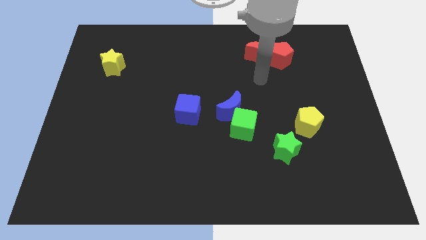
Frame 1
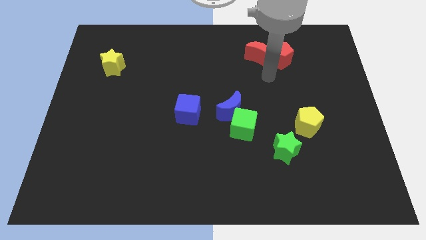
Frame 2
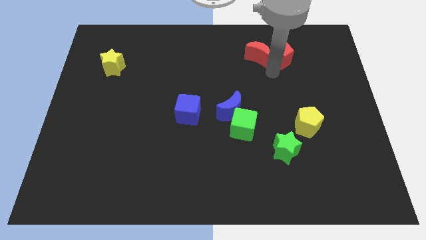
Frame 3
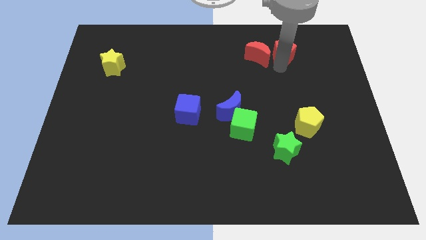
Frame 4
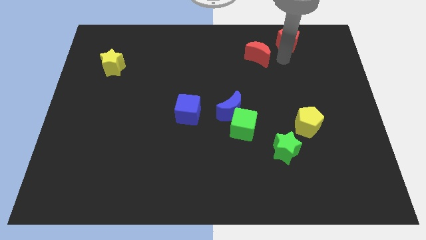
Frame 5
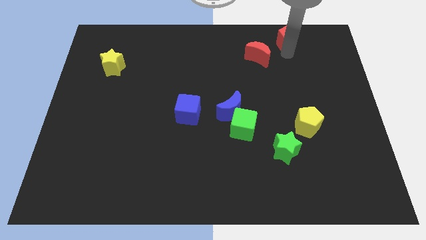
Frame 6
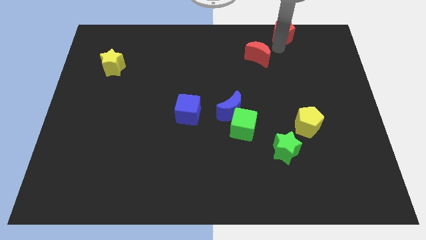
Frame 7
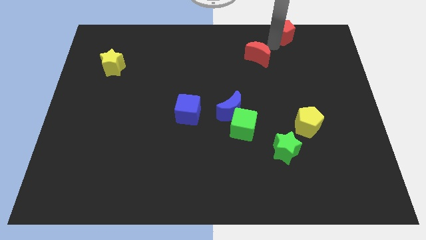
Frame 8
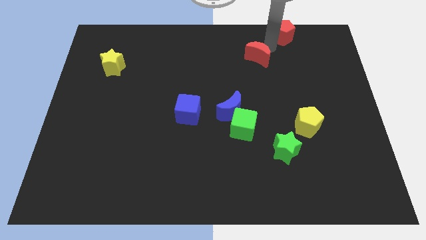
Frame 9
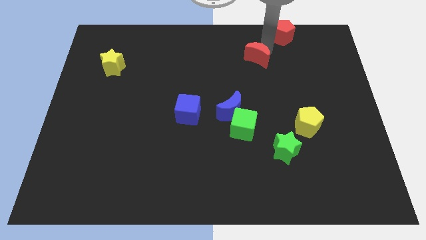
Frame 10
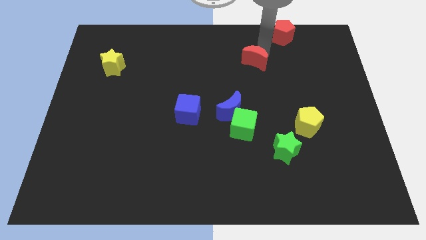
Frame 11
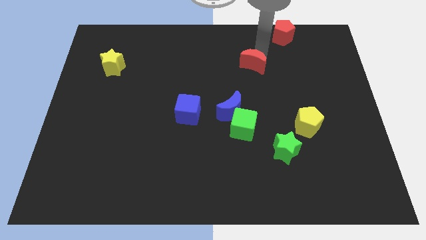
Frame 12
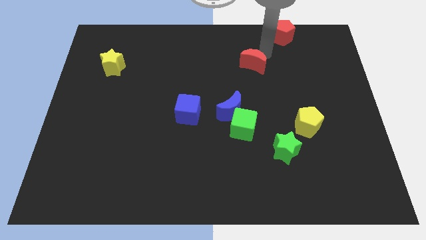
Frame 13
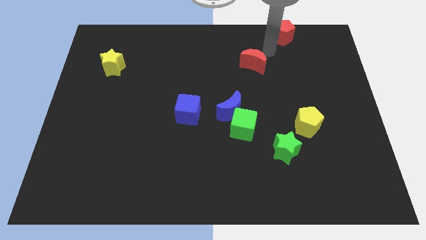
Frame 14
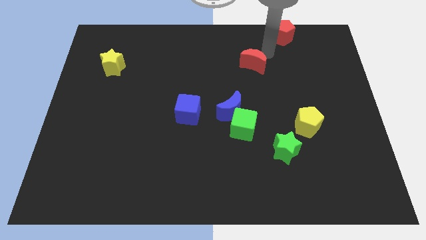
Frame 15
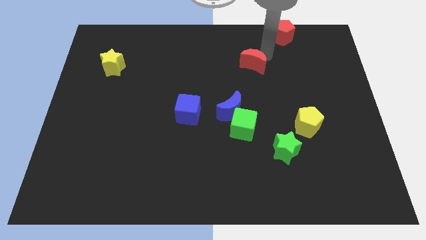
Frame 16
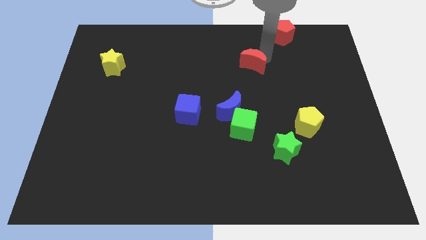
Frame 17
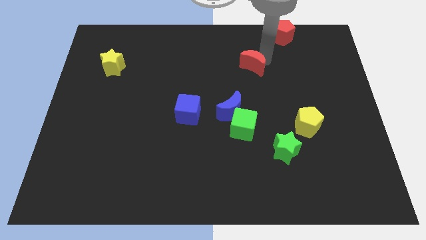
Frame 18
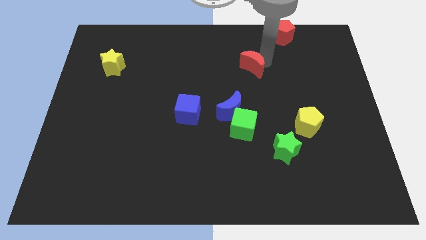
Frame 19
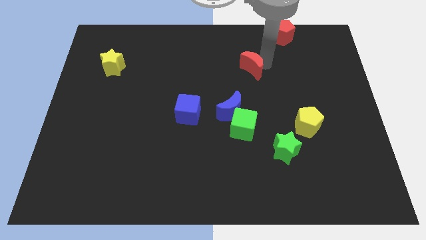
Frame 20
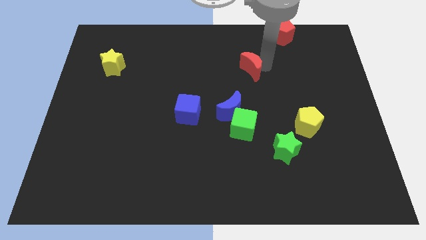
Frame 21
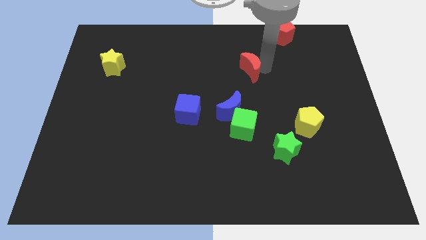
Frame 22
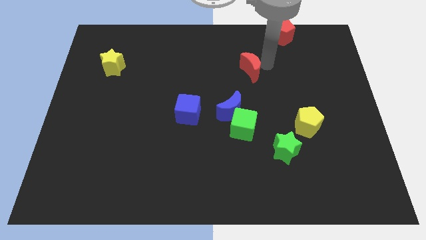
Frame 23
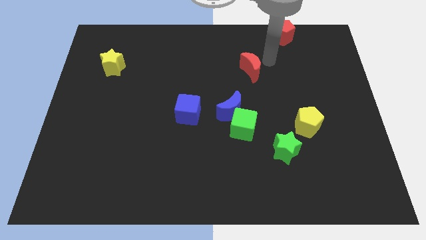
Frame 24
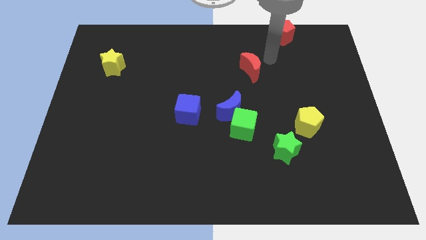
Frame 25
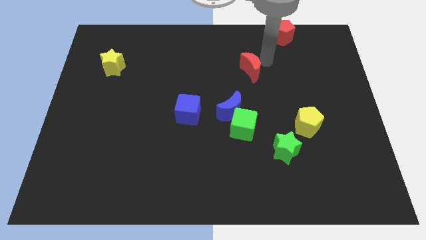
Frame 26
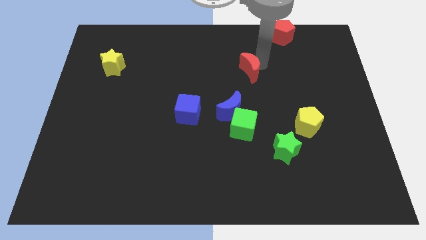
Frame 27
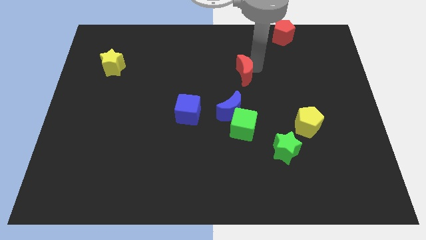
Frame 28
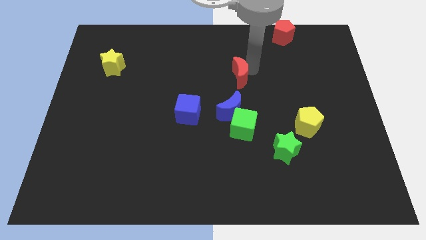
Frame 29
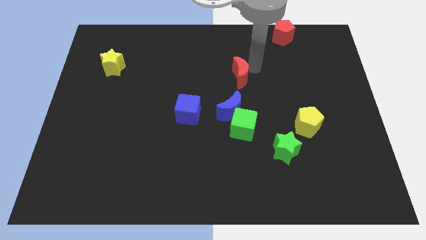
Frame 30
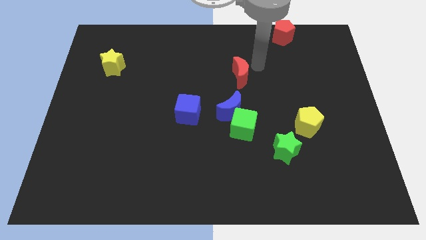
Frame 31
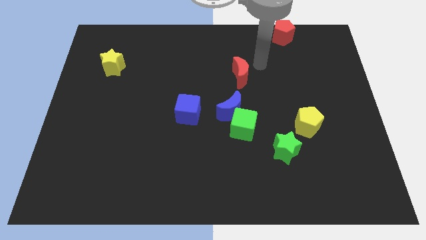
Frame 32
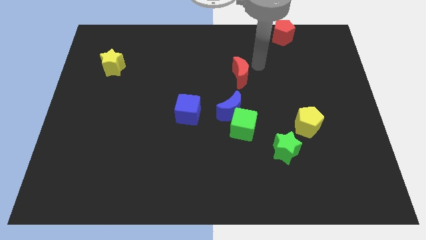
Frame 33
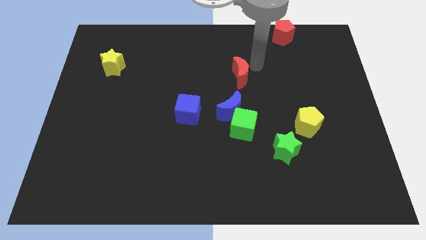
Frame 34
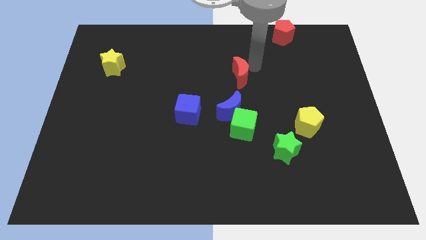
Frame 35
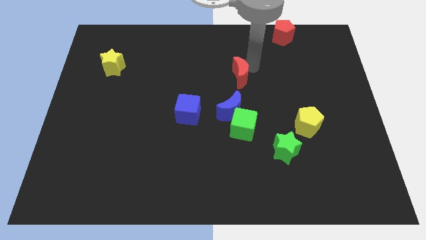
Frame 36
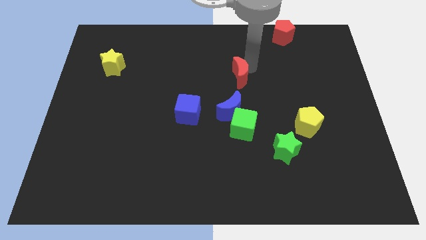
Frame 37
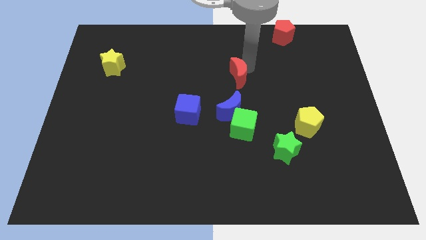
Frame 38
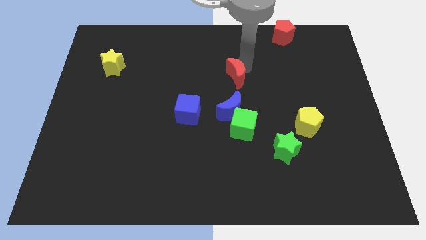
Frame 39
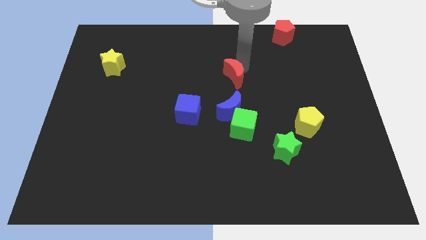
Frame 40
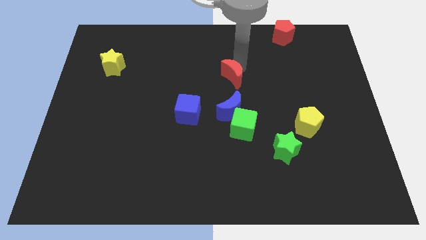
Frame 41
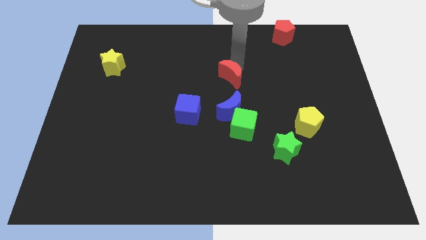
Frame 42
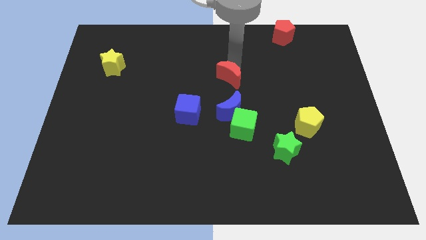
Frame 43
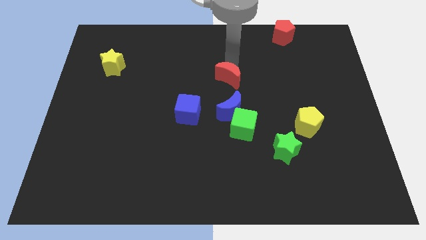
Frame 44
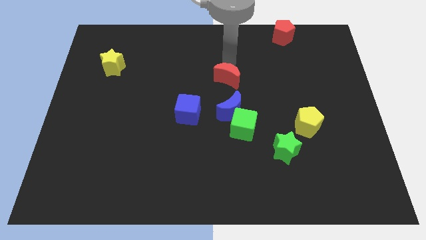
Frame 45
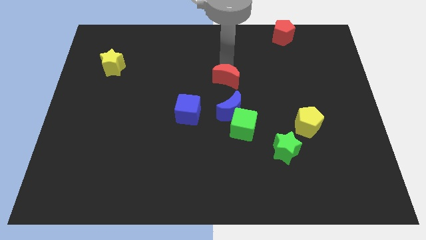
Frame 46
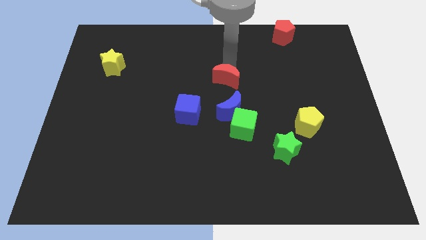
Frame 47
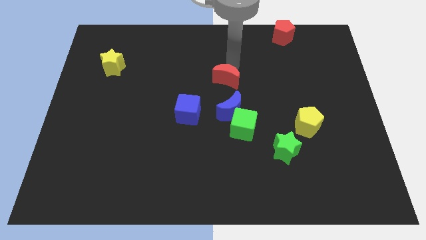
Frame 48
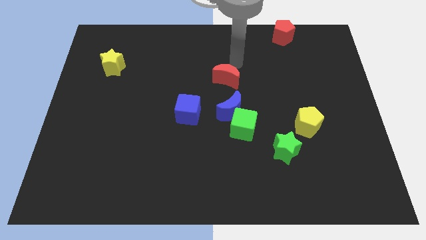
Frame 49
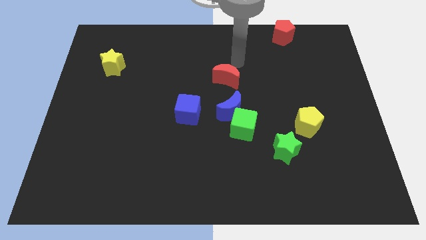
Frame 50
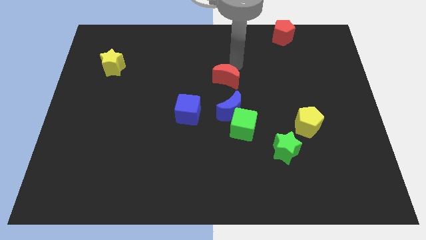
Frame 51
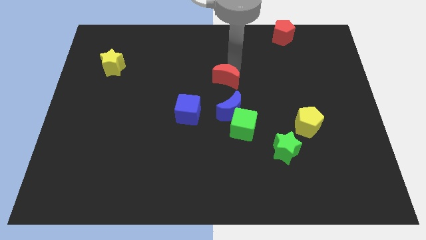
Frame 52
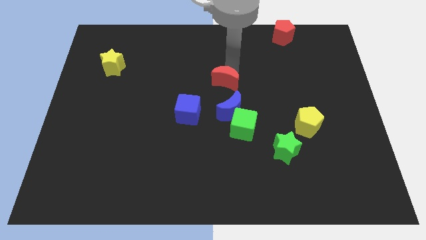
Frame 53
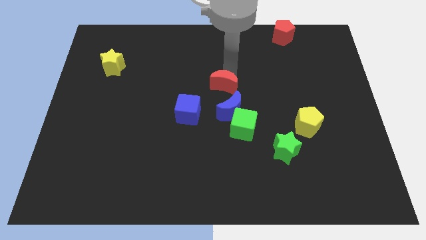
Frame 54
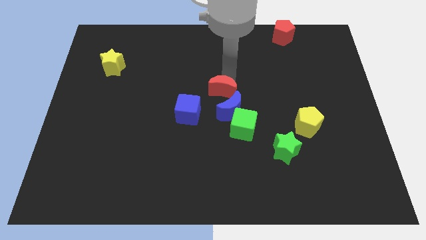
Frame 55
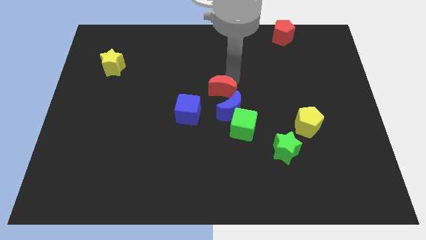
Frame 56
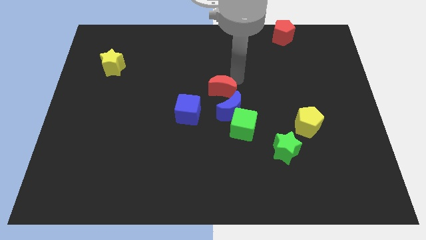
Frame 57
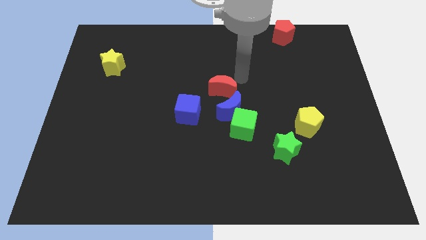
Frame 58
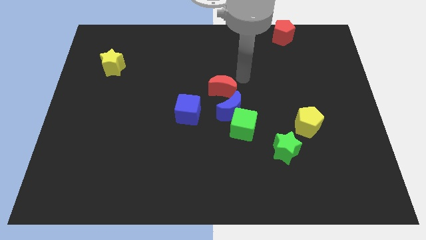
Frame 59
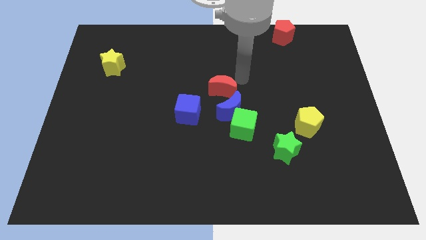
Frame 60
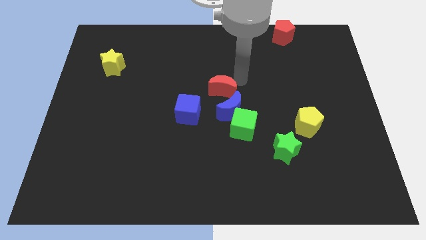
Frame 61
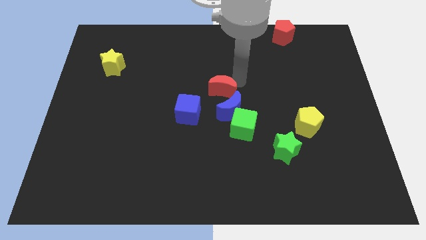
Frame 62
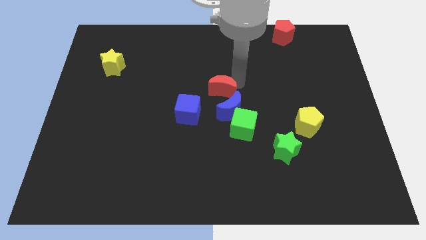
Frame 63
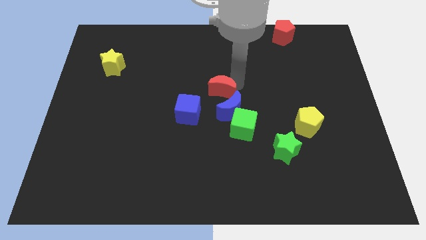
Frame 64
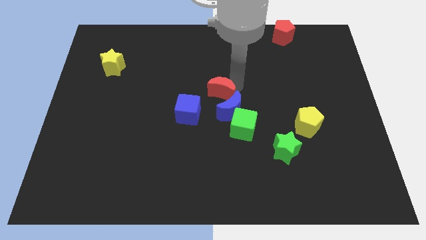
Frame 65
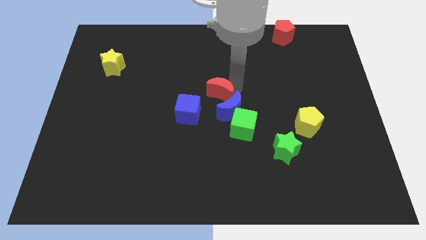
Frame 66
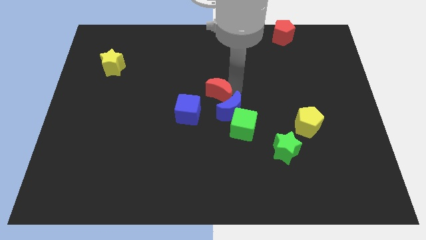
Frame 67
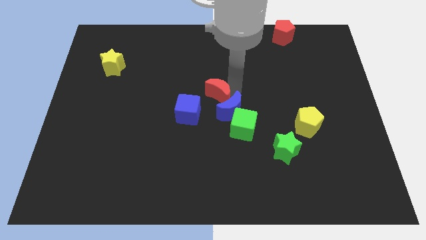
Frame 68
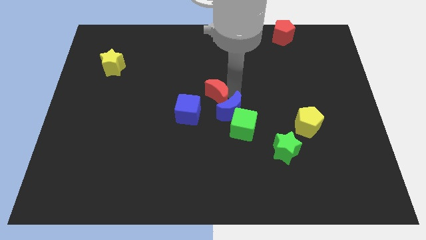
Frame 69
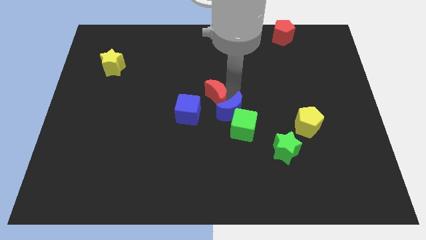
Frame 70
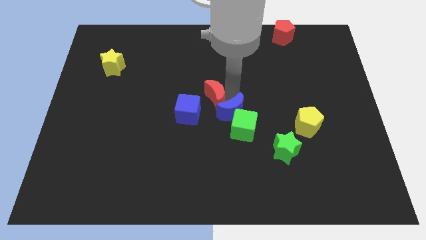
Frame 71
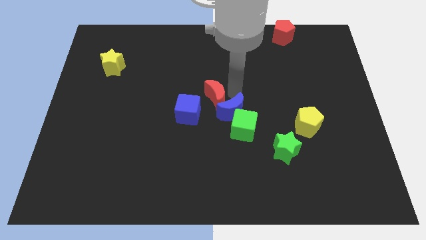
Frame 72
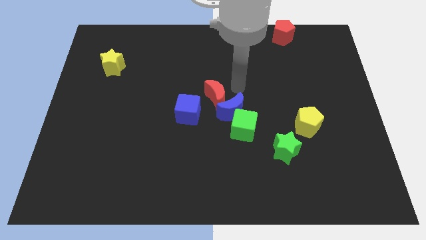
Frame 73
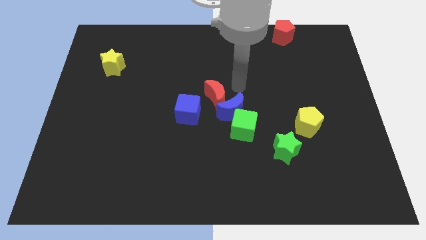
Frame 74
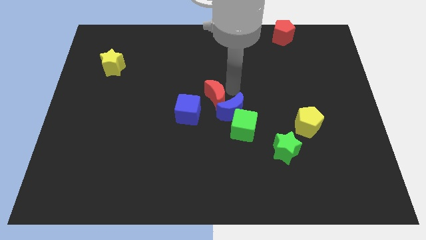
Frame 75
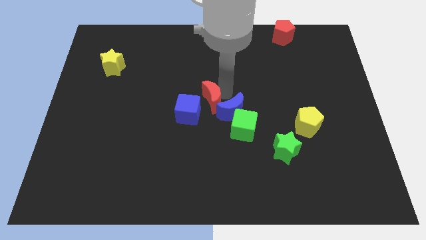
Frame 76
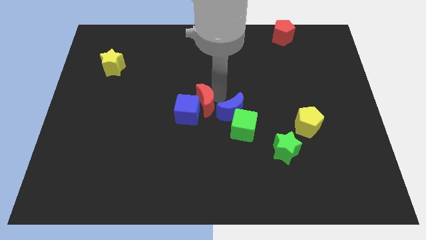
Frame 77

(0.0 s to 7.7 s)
move the red moon next to the blue cube
